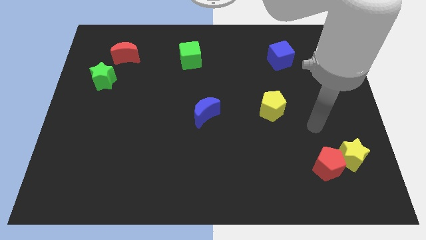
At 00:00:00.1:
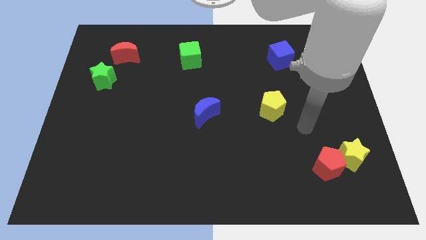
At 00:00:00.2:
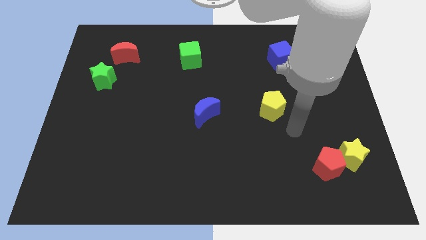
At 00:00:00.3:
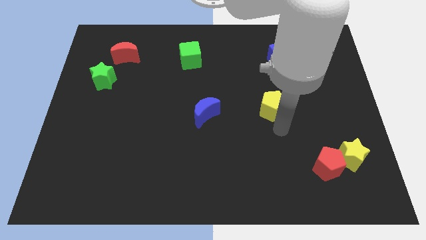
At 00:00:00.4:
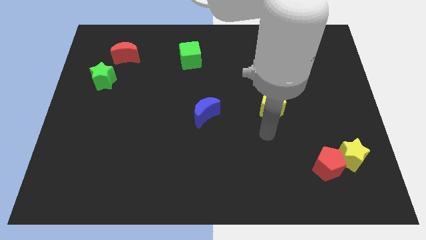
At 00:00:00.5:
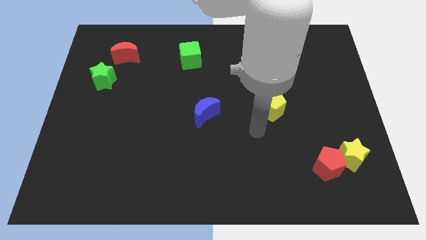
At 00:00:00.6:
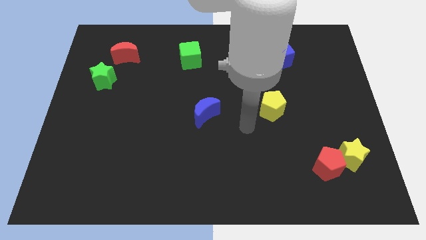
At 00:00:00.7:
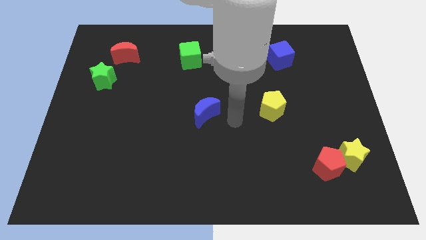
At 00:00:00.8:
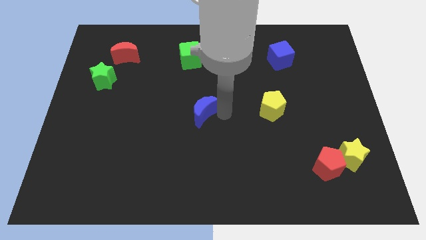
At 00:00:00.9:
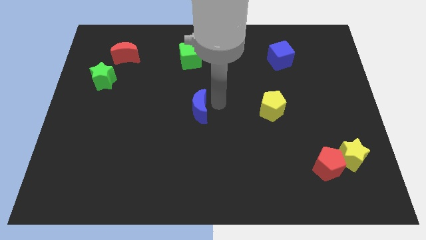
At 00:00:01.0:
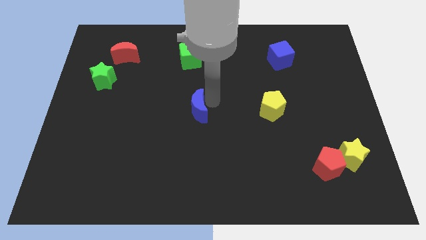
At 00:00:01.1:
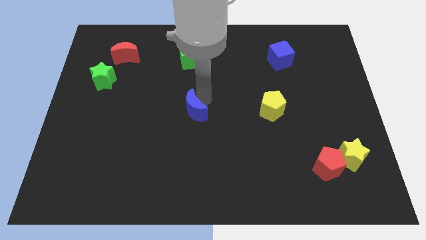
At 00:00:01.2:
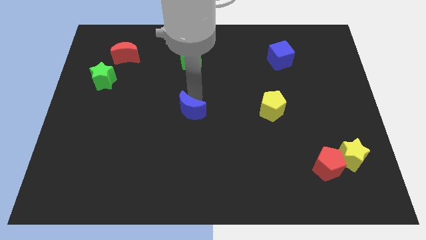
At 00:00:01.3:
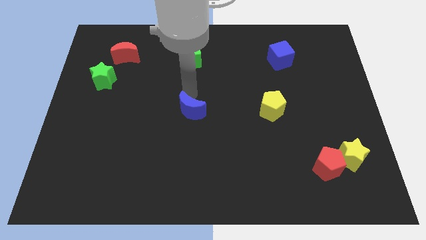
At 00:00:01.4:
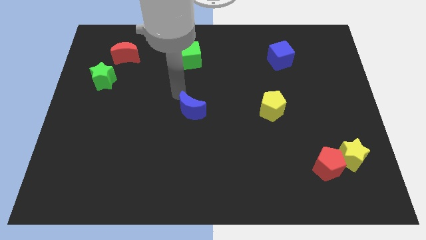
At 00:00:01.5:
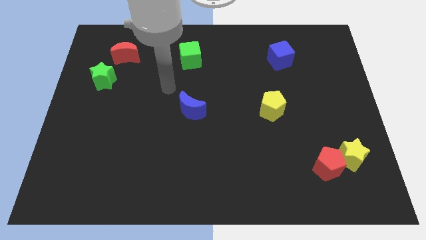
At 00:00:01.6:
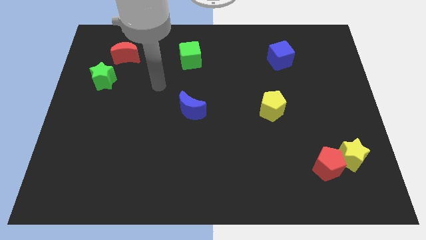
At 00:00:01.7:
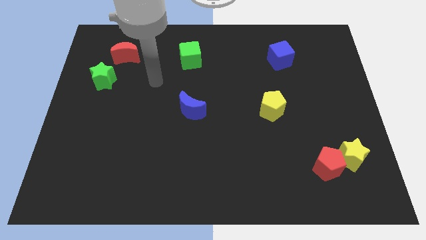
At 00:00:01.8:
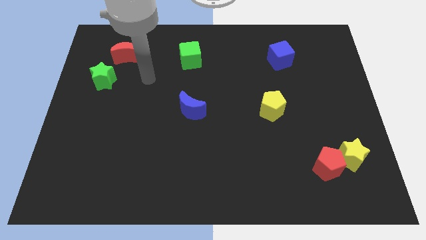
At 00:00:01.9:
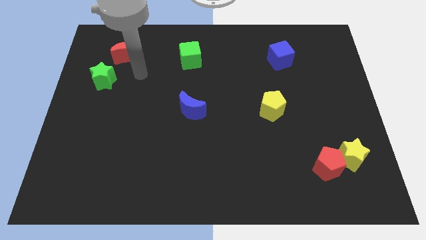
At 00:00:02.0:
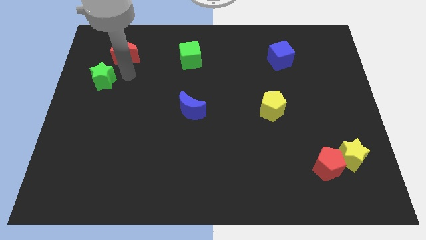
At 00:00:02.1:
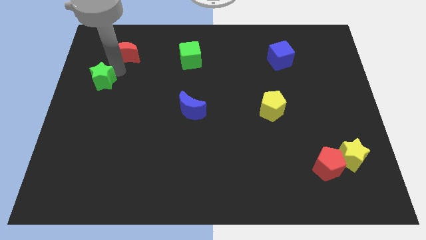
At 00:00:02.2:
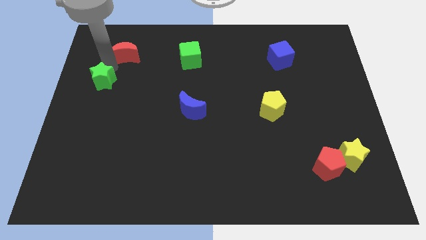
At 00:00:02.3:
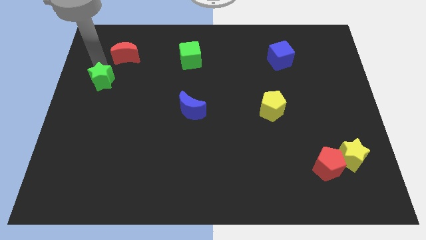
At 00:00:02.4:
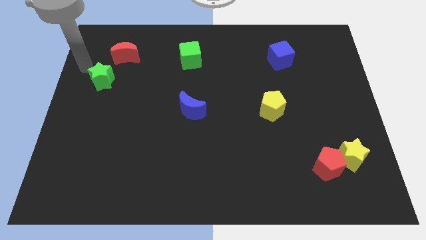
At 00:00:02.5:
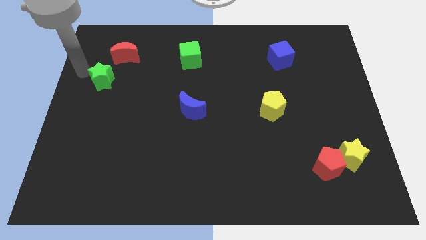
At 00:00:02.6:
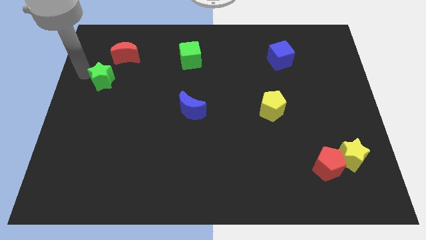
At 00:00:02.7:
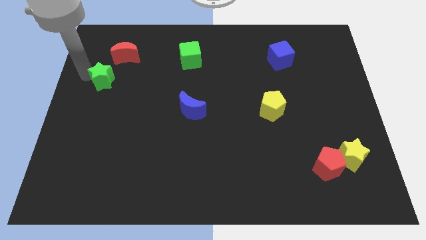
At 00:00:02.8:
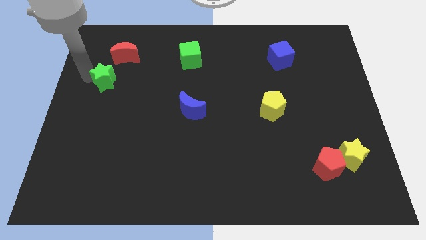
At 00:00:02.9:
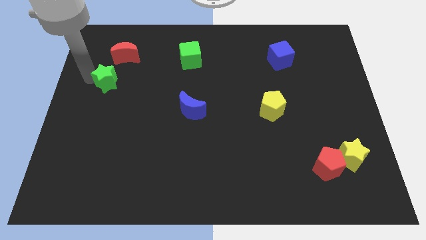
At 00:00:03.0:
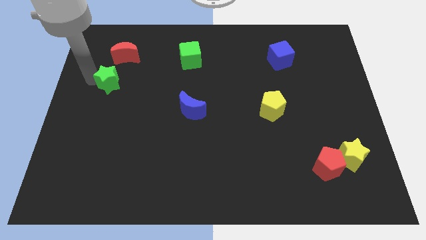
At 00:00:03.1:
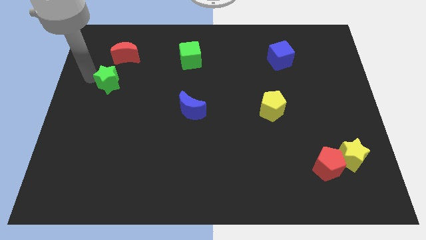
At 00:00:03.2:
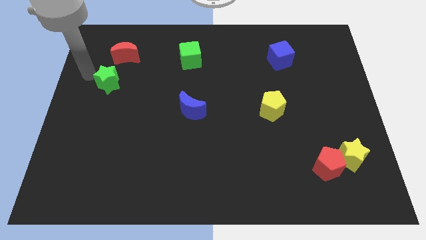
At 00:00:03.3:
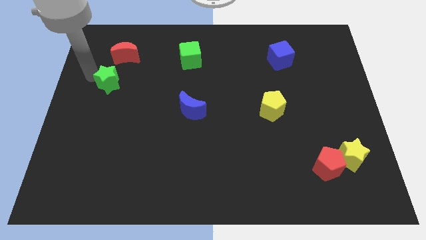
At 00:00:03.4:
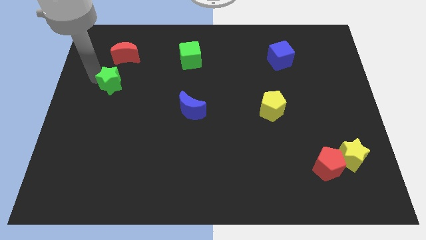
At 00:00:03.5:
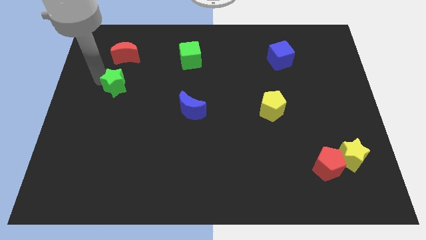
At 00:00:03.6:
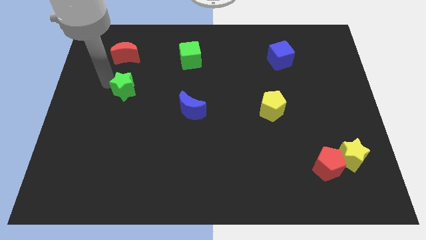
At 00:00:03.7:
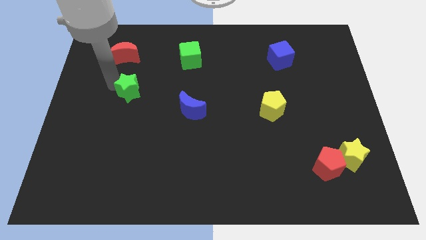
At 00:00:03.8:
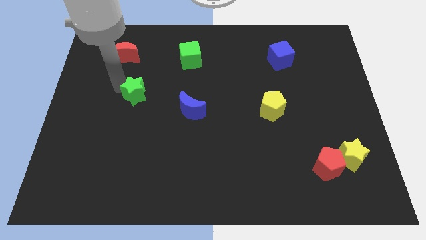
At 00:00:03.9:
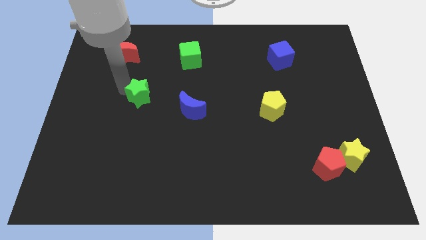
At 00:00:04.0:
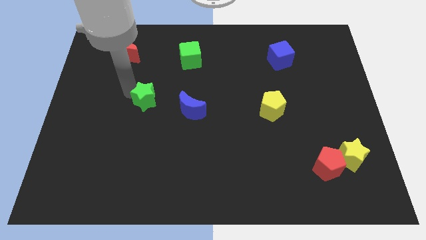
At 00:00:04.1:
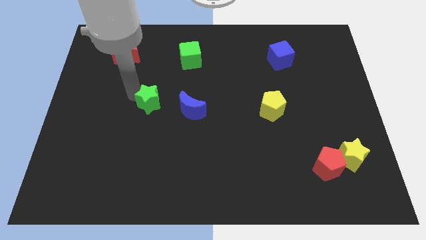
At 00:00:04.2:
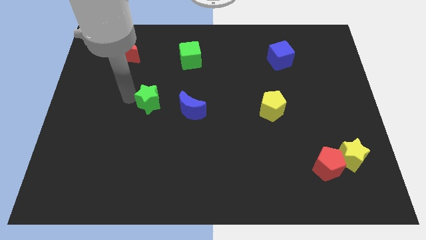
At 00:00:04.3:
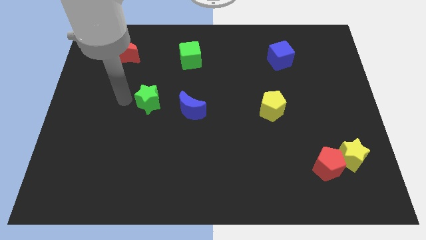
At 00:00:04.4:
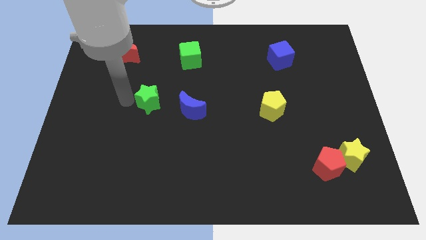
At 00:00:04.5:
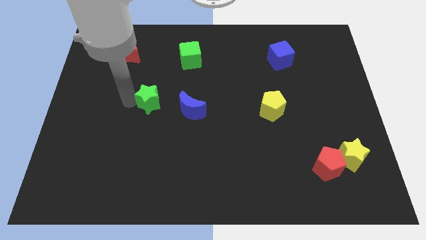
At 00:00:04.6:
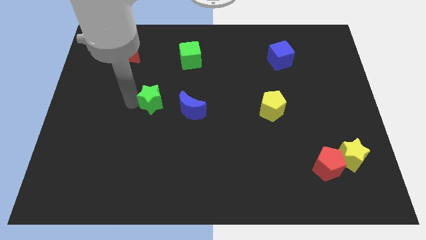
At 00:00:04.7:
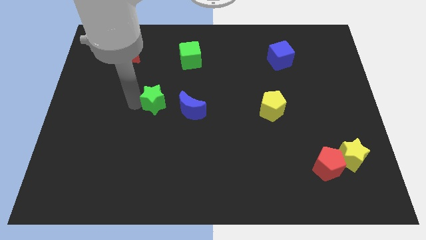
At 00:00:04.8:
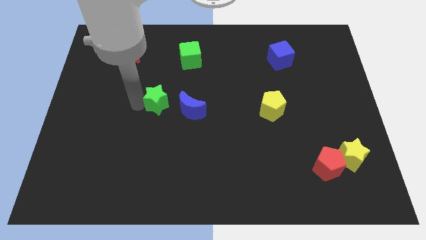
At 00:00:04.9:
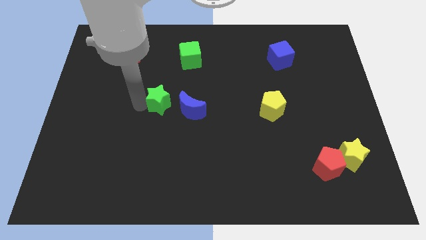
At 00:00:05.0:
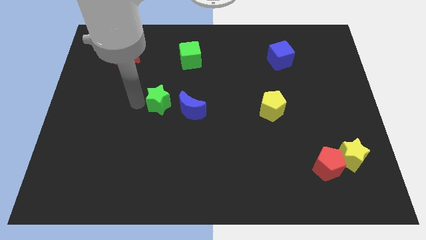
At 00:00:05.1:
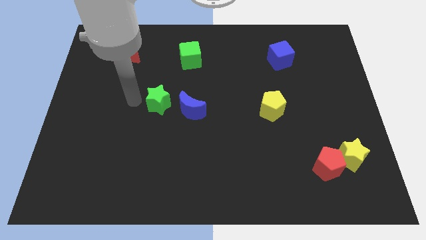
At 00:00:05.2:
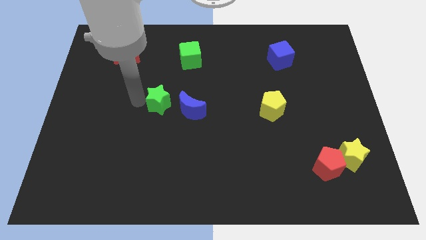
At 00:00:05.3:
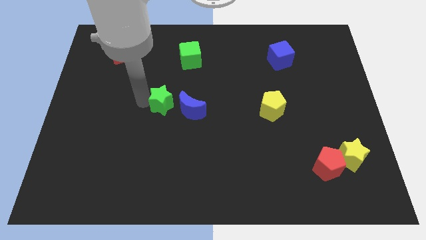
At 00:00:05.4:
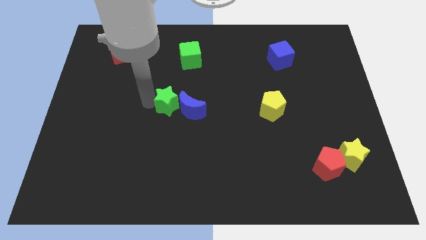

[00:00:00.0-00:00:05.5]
move the green star to the blue moon
